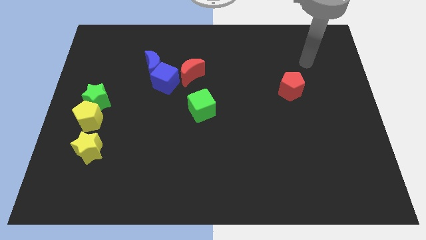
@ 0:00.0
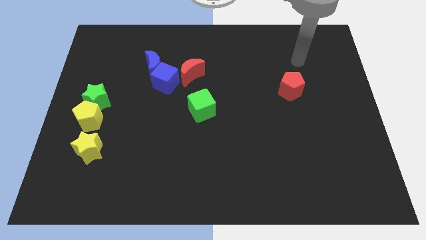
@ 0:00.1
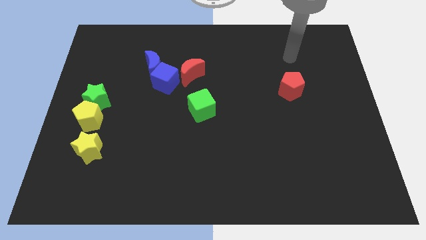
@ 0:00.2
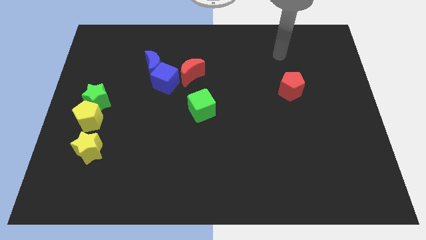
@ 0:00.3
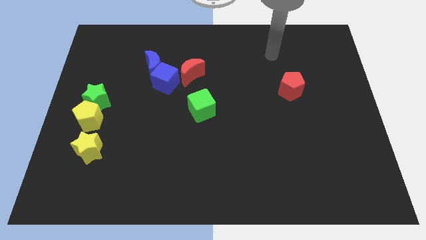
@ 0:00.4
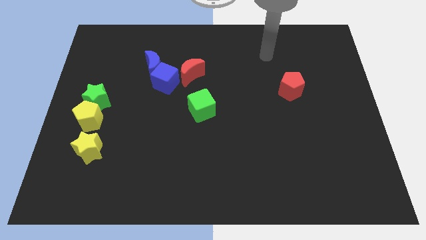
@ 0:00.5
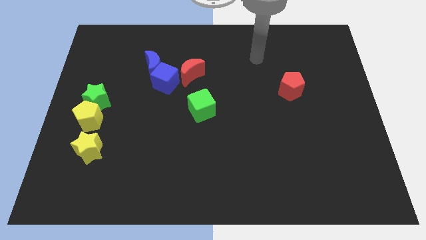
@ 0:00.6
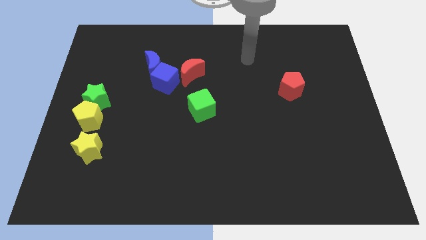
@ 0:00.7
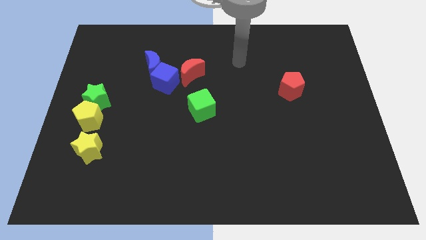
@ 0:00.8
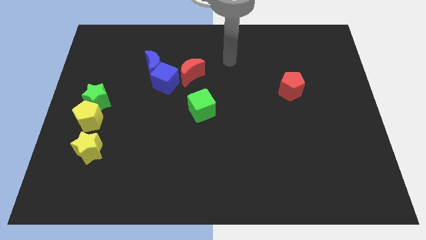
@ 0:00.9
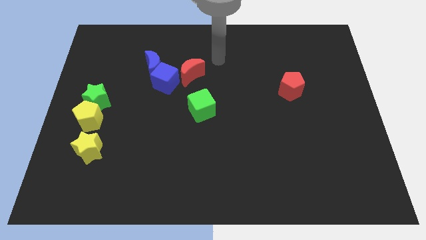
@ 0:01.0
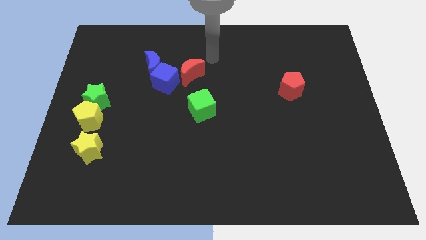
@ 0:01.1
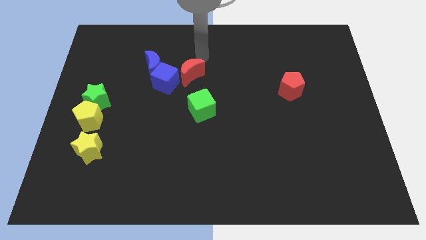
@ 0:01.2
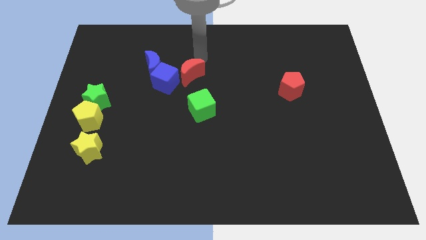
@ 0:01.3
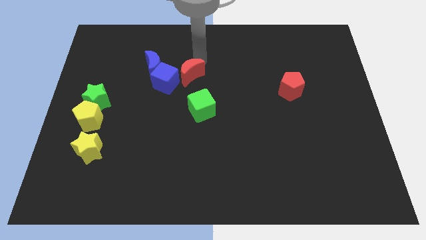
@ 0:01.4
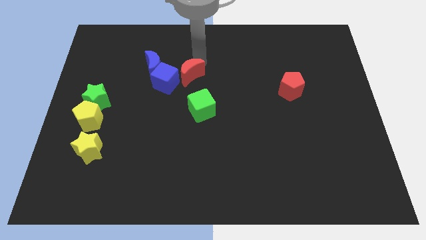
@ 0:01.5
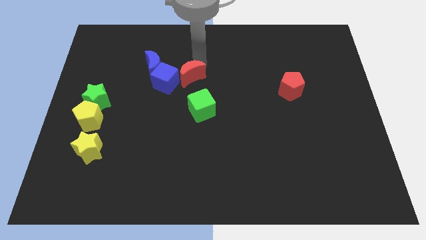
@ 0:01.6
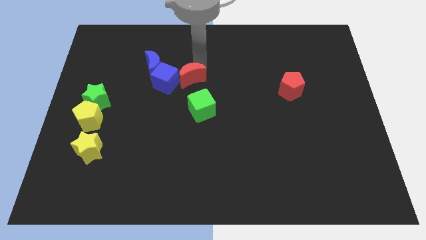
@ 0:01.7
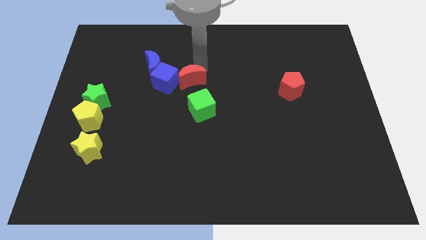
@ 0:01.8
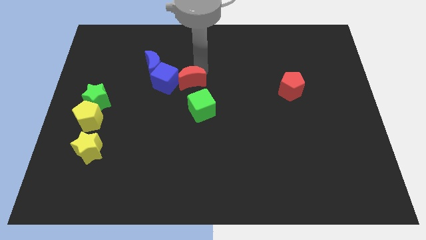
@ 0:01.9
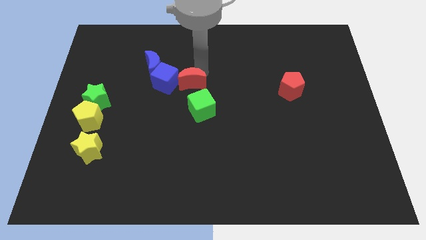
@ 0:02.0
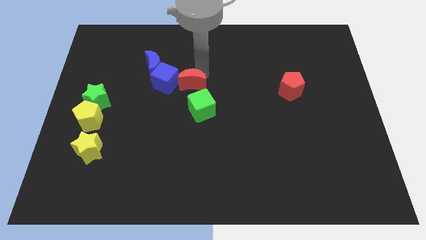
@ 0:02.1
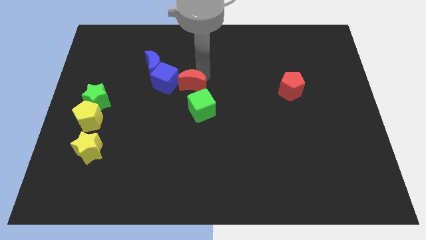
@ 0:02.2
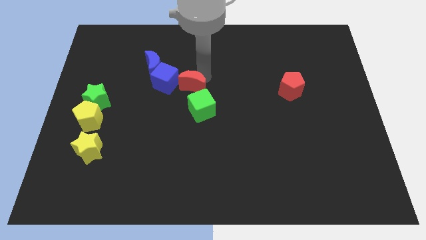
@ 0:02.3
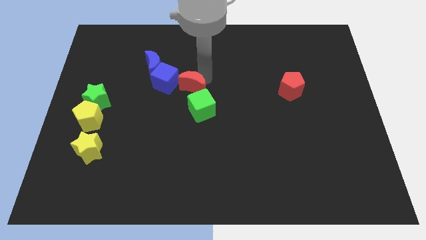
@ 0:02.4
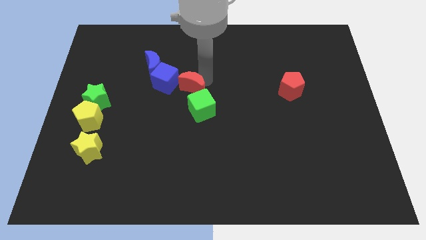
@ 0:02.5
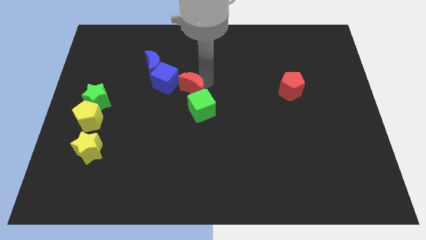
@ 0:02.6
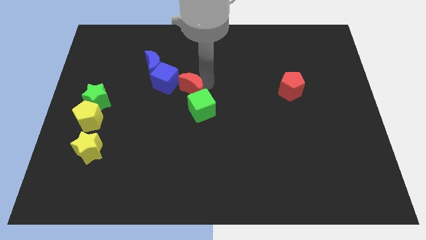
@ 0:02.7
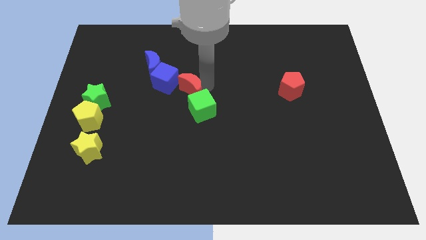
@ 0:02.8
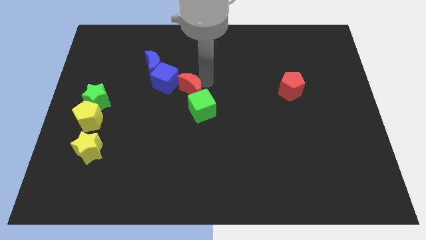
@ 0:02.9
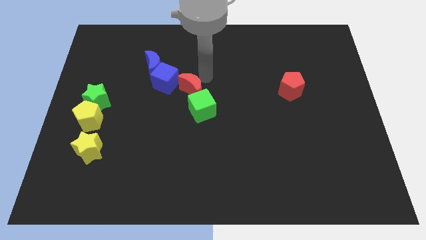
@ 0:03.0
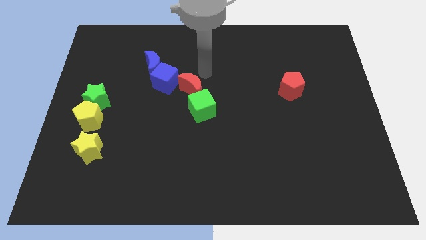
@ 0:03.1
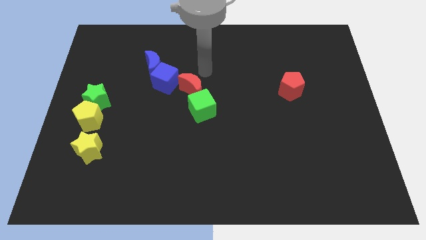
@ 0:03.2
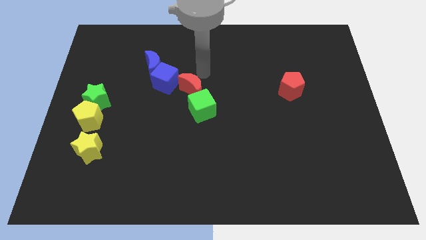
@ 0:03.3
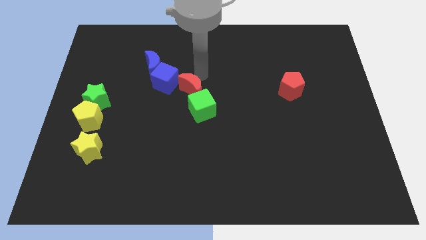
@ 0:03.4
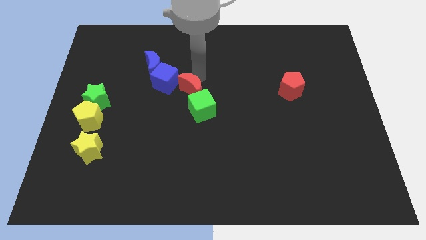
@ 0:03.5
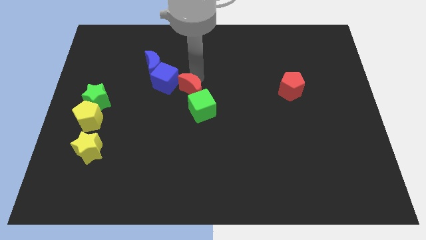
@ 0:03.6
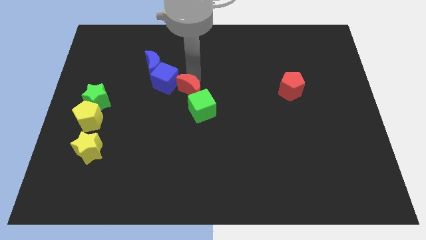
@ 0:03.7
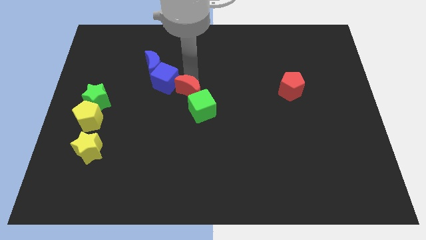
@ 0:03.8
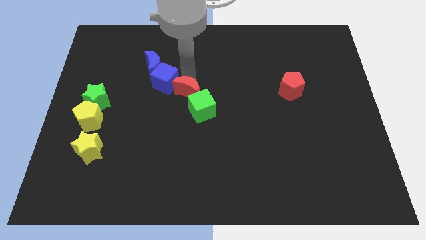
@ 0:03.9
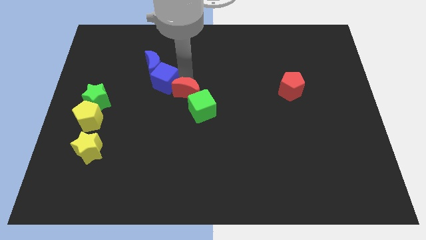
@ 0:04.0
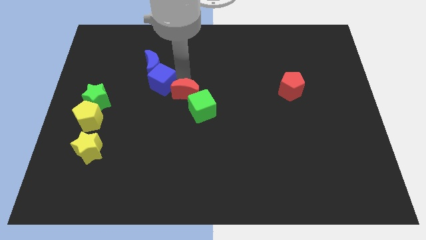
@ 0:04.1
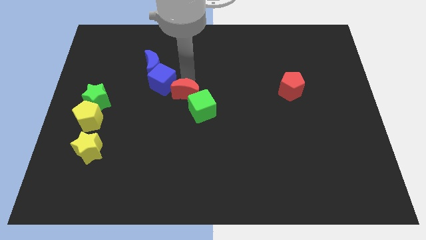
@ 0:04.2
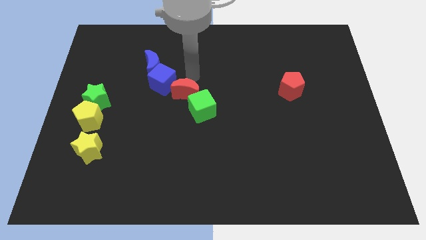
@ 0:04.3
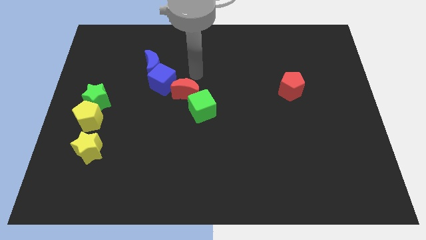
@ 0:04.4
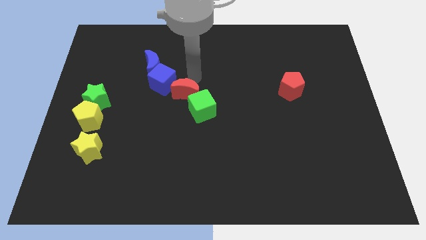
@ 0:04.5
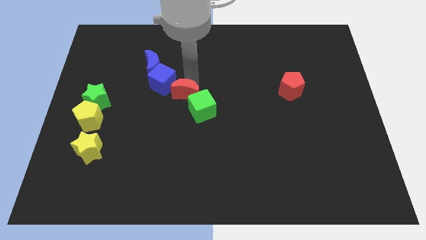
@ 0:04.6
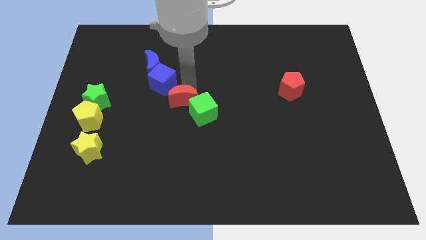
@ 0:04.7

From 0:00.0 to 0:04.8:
push the red moon a bit downwards

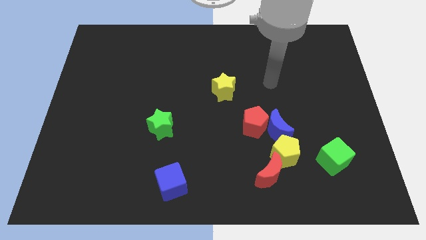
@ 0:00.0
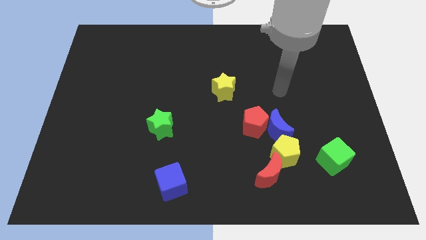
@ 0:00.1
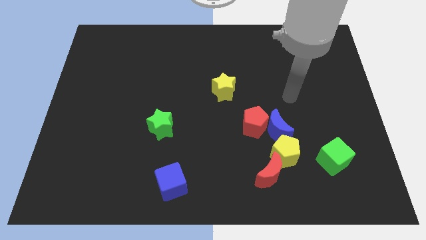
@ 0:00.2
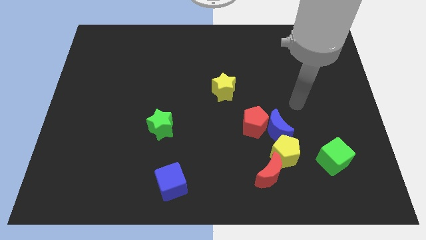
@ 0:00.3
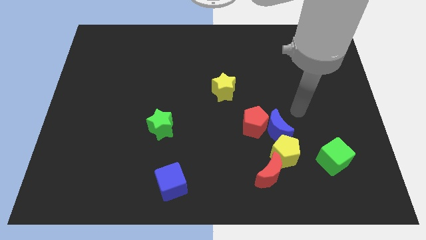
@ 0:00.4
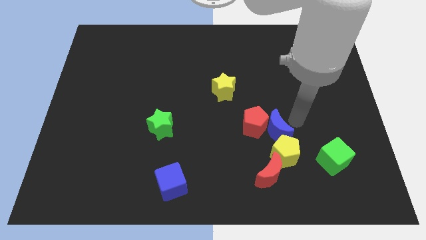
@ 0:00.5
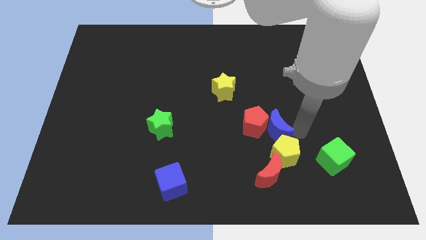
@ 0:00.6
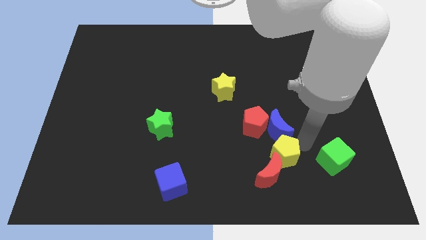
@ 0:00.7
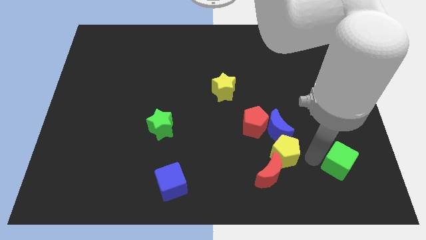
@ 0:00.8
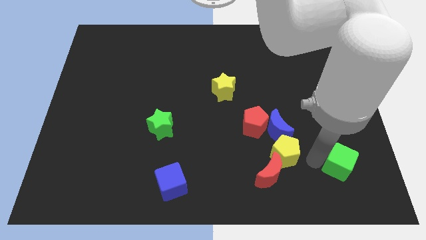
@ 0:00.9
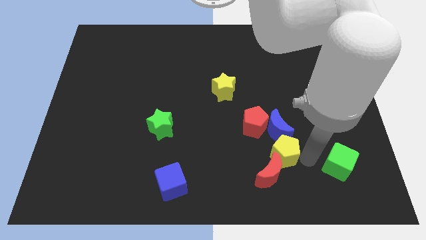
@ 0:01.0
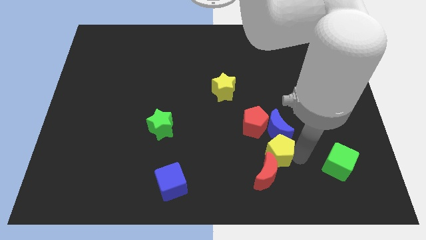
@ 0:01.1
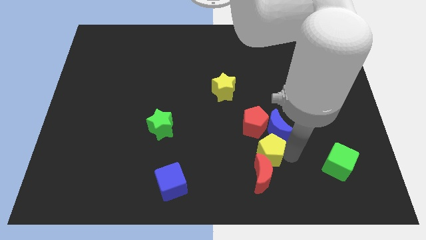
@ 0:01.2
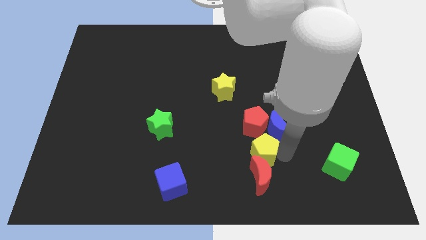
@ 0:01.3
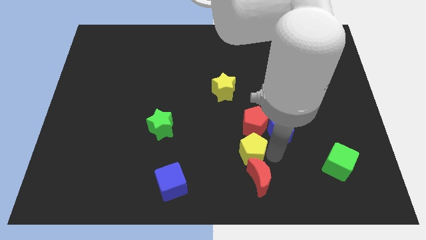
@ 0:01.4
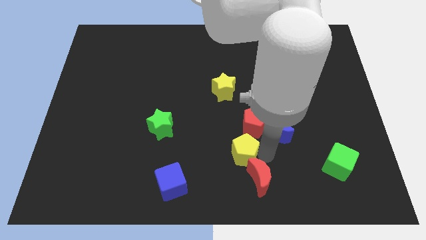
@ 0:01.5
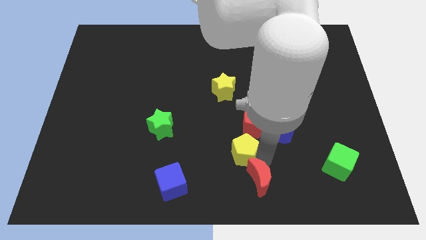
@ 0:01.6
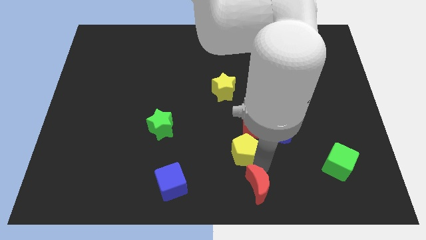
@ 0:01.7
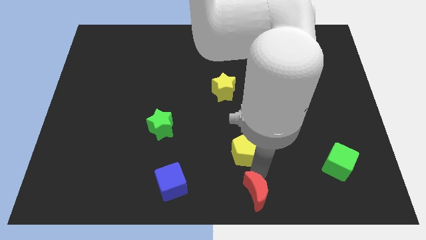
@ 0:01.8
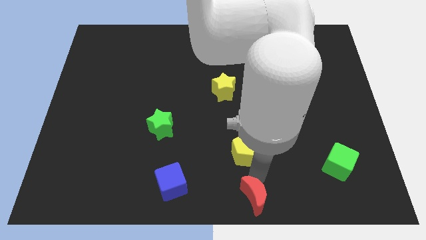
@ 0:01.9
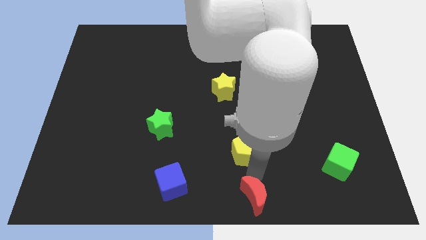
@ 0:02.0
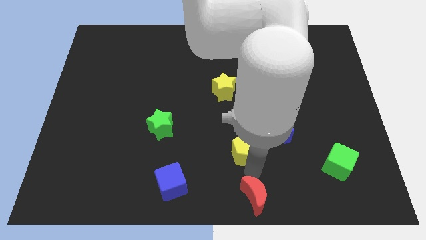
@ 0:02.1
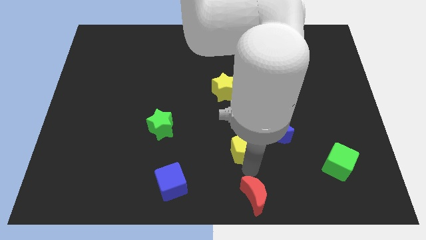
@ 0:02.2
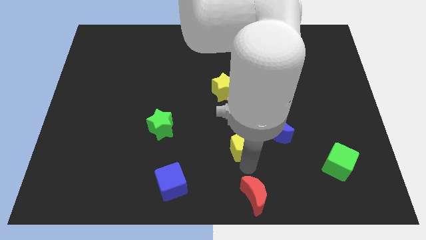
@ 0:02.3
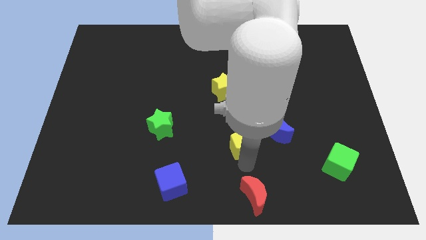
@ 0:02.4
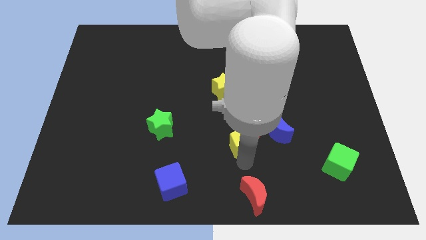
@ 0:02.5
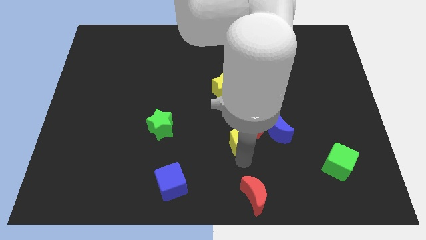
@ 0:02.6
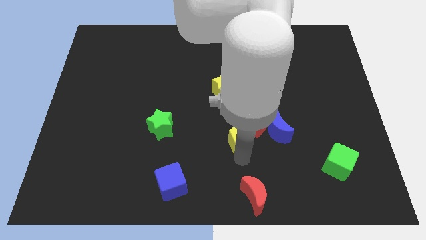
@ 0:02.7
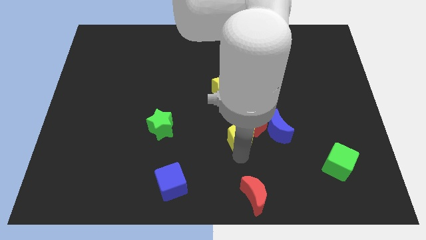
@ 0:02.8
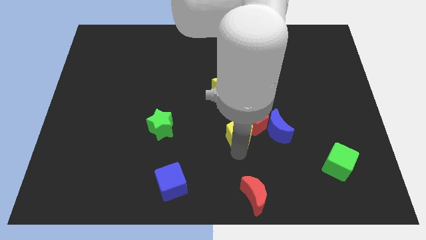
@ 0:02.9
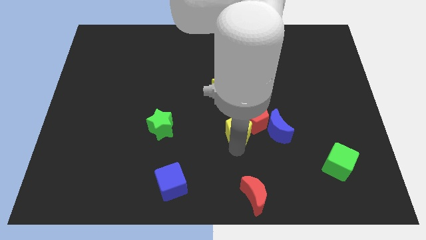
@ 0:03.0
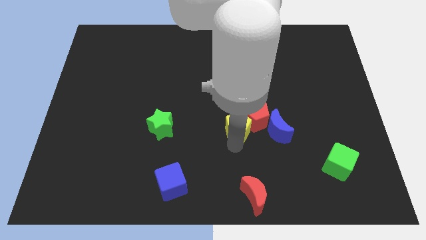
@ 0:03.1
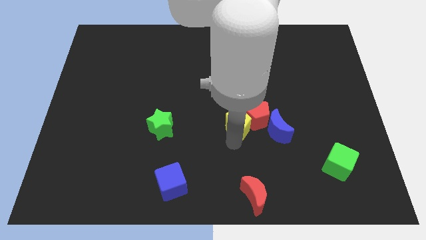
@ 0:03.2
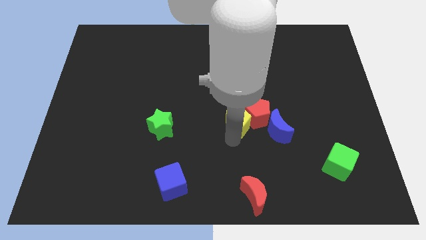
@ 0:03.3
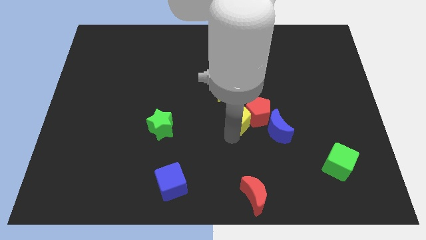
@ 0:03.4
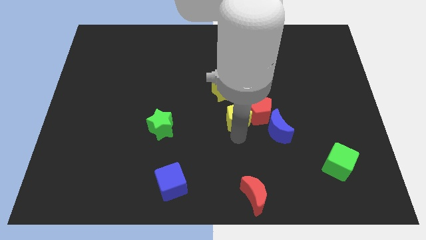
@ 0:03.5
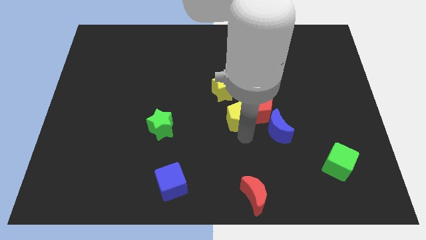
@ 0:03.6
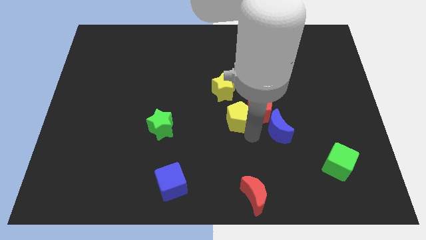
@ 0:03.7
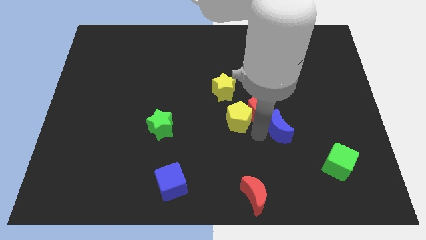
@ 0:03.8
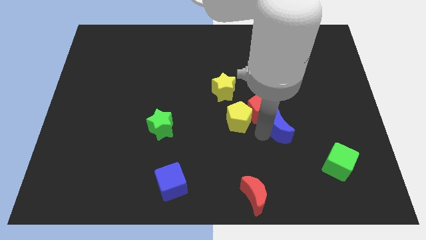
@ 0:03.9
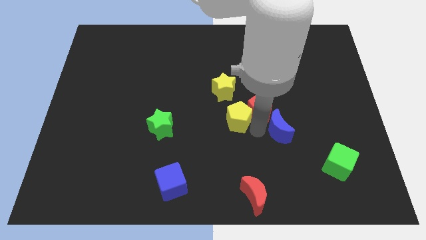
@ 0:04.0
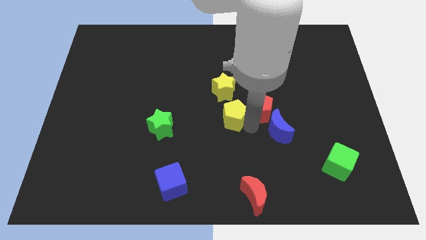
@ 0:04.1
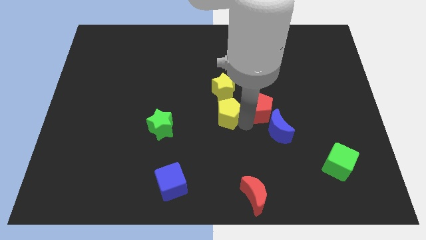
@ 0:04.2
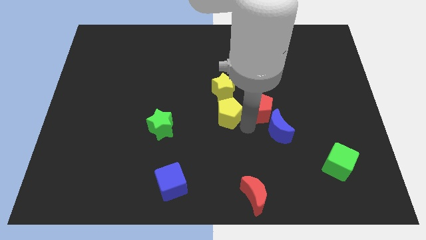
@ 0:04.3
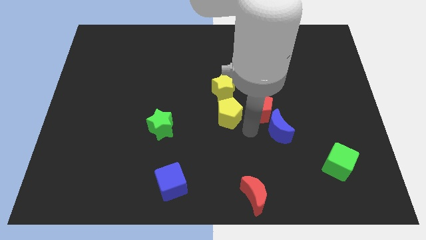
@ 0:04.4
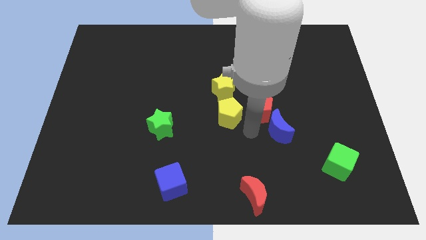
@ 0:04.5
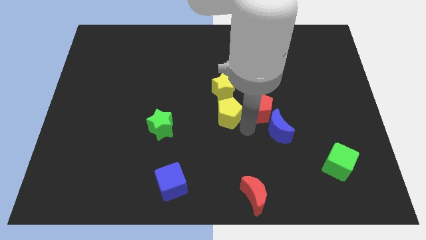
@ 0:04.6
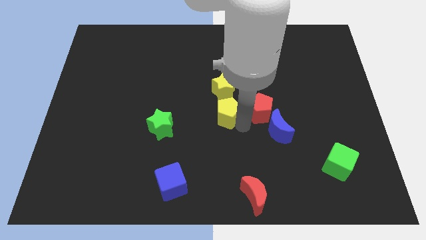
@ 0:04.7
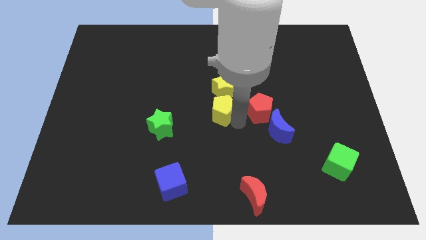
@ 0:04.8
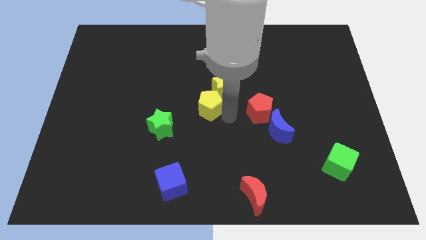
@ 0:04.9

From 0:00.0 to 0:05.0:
push the yellow pentagon upwards and then left
